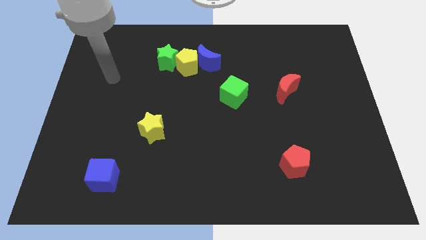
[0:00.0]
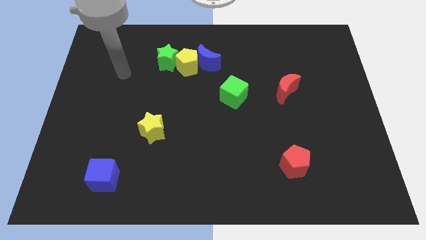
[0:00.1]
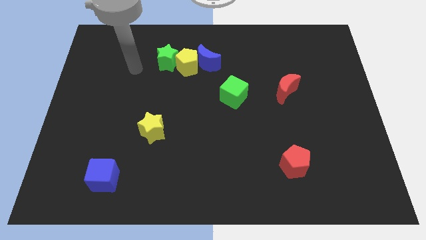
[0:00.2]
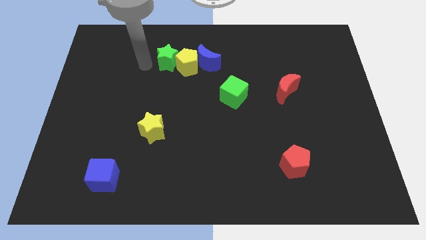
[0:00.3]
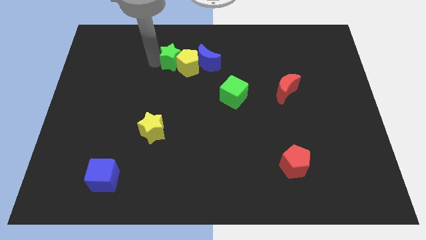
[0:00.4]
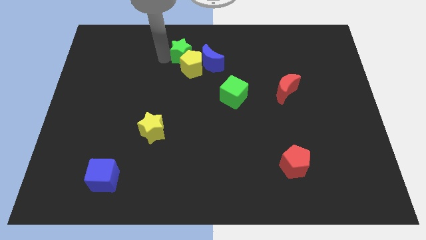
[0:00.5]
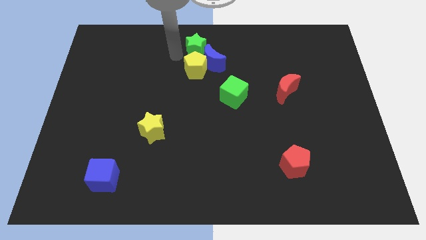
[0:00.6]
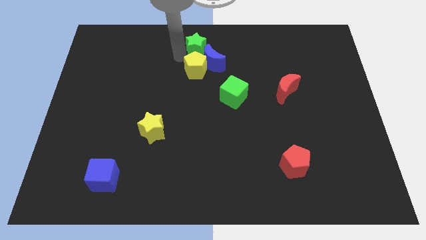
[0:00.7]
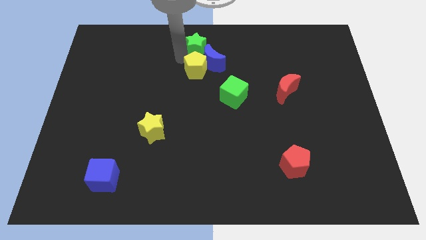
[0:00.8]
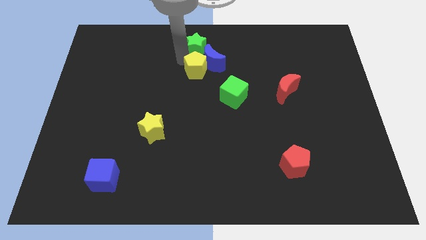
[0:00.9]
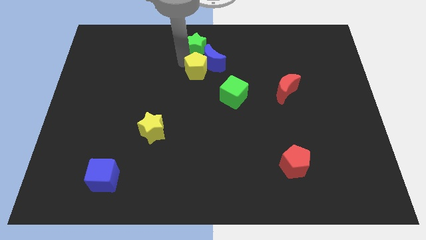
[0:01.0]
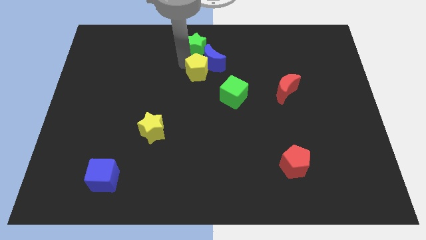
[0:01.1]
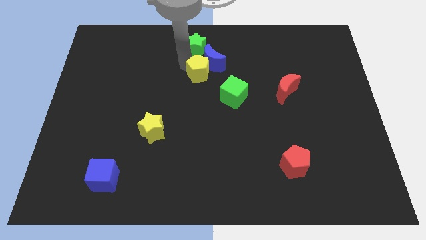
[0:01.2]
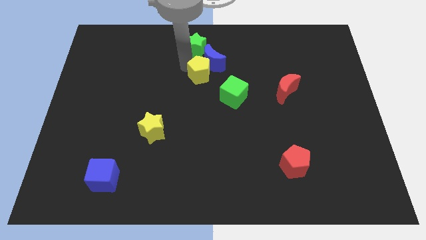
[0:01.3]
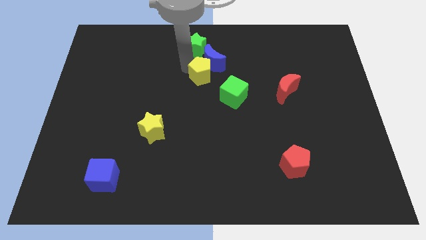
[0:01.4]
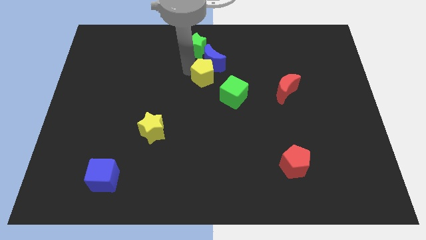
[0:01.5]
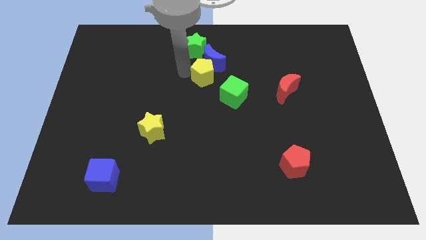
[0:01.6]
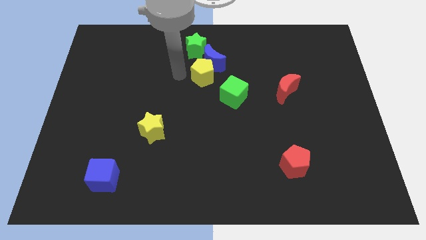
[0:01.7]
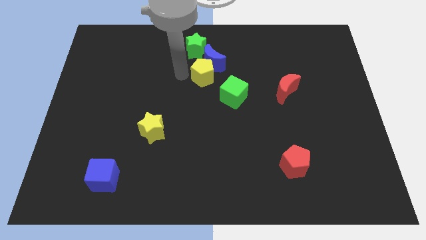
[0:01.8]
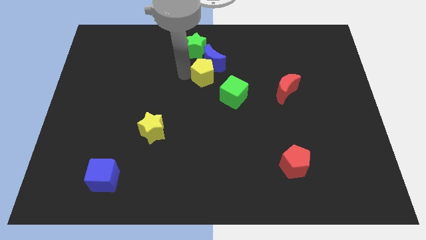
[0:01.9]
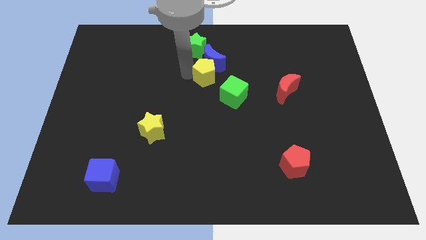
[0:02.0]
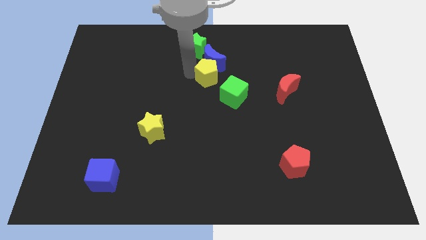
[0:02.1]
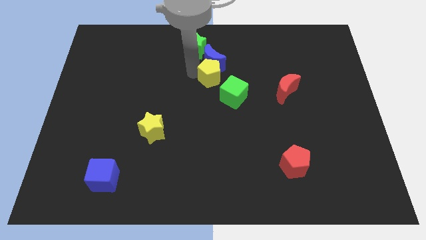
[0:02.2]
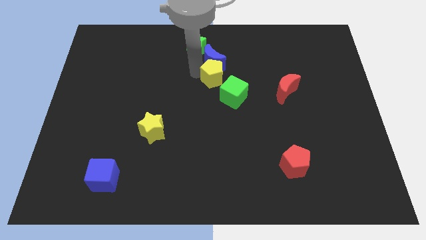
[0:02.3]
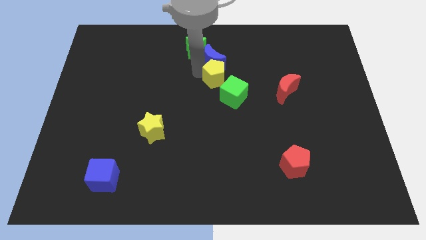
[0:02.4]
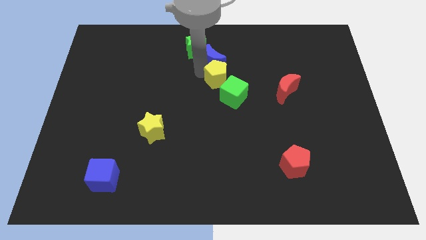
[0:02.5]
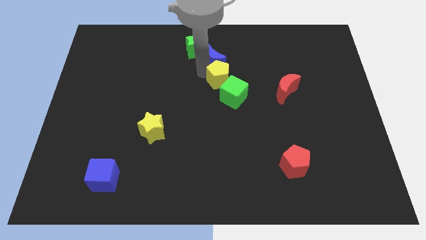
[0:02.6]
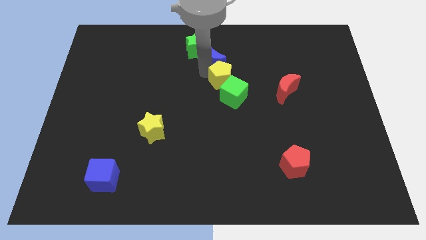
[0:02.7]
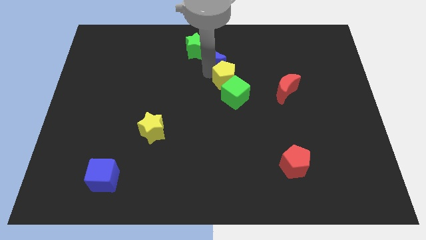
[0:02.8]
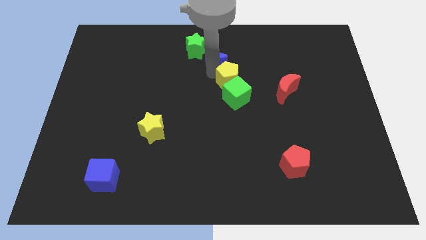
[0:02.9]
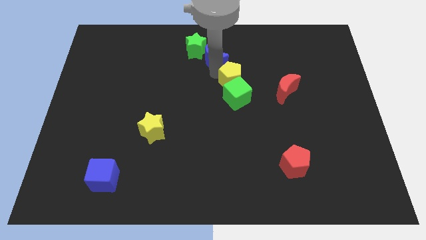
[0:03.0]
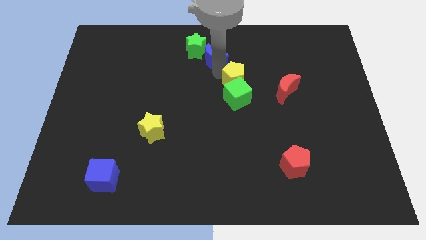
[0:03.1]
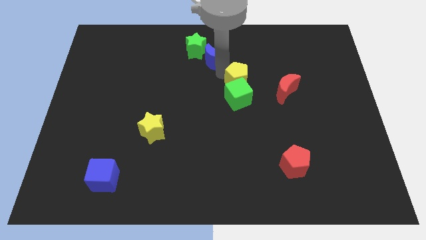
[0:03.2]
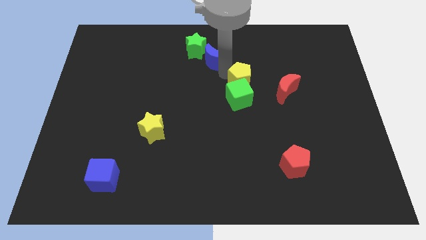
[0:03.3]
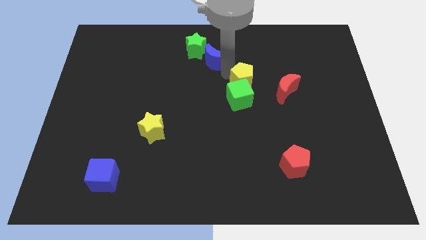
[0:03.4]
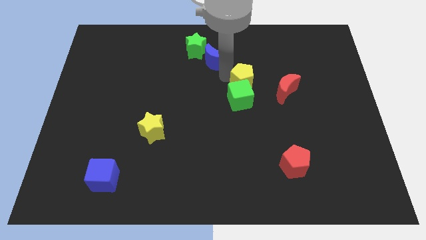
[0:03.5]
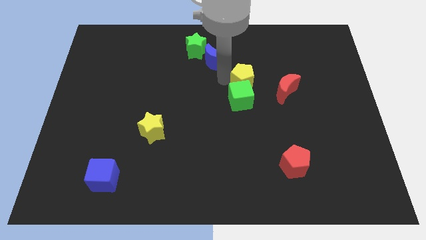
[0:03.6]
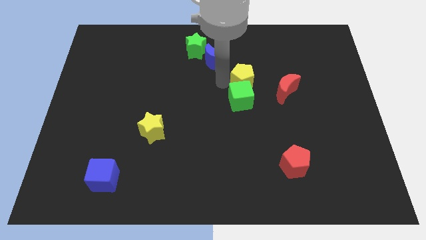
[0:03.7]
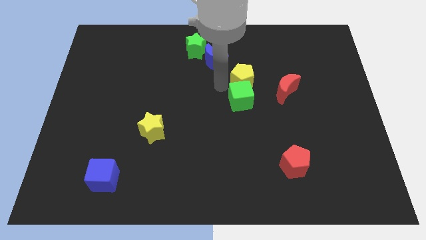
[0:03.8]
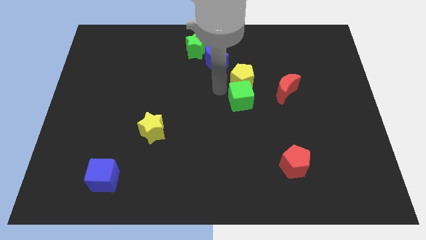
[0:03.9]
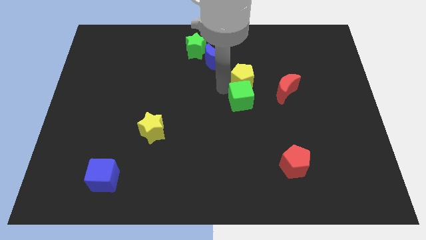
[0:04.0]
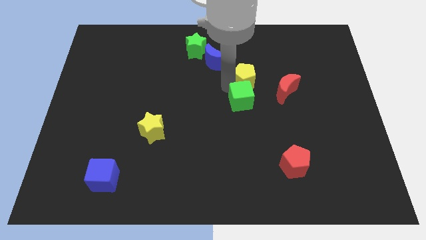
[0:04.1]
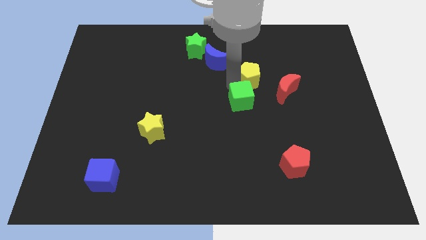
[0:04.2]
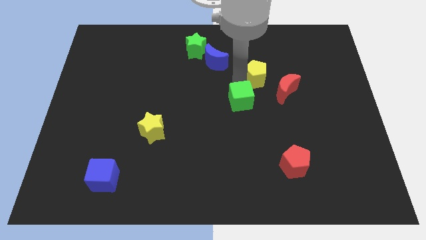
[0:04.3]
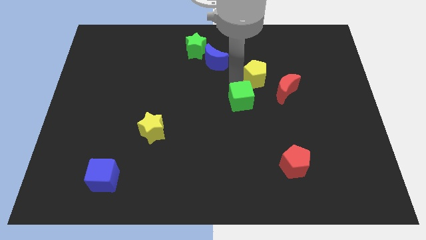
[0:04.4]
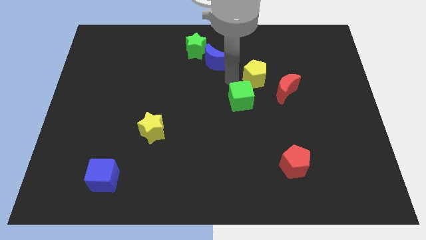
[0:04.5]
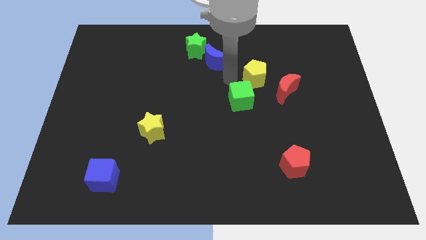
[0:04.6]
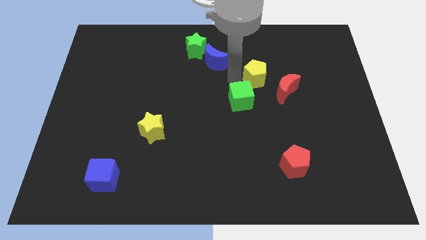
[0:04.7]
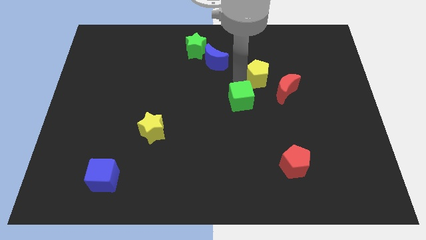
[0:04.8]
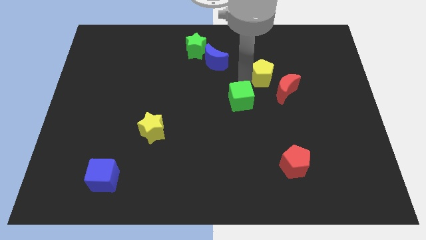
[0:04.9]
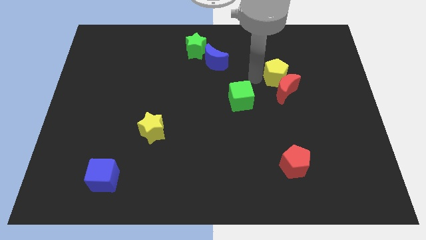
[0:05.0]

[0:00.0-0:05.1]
move the yellow pentagon diagonally up and to the right of the red moon

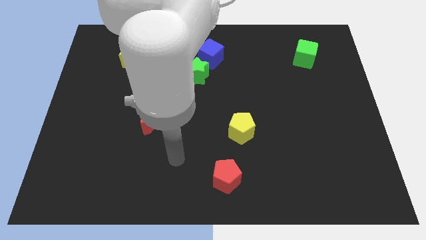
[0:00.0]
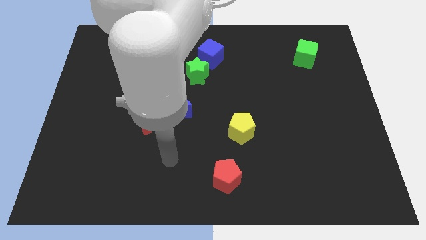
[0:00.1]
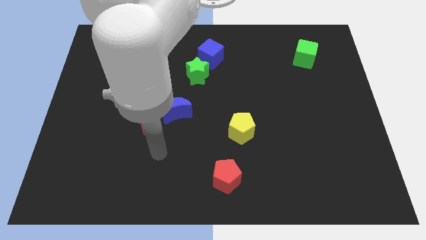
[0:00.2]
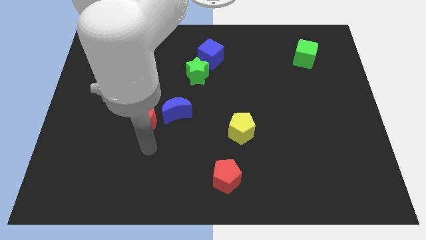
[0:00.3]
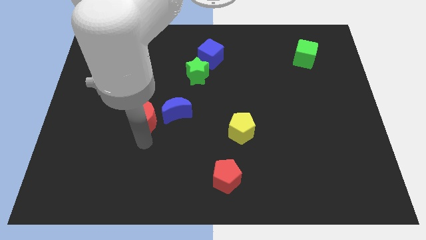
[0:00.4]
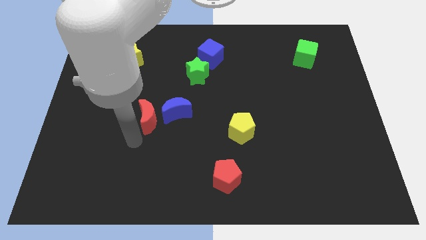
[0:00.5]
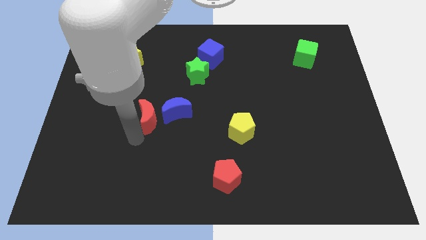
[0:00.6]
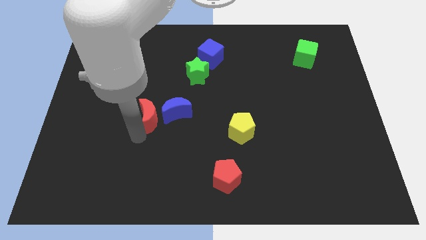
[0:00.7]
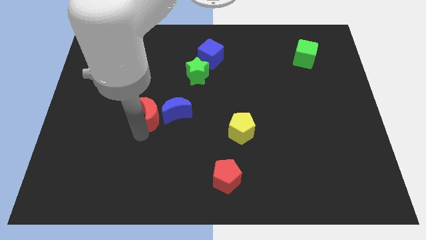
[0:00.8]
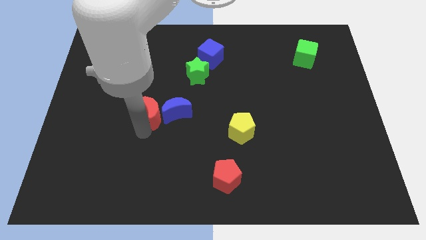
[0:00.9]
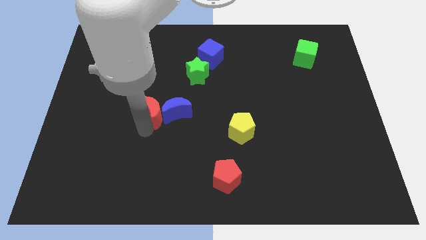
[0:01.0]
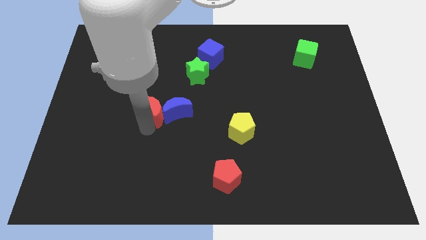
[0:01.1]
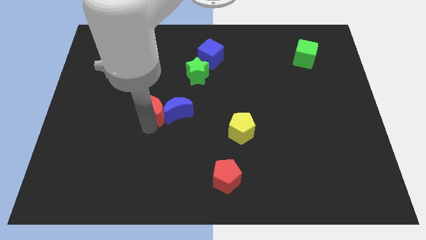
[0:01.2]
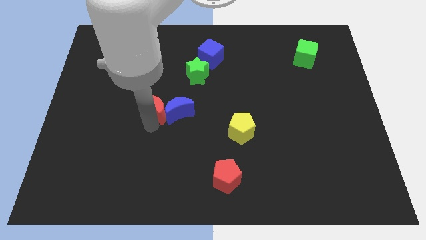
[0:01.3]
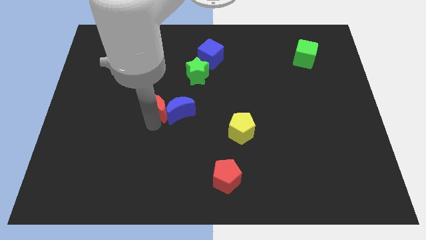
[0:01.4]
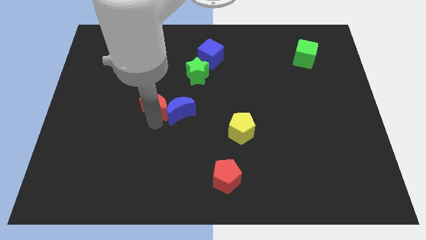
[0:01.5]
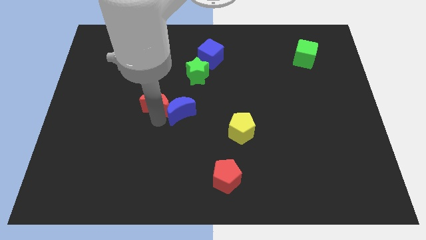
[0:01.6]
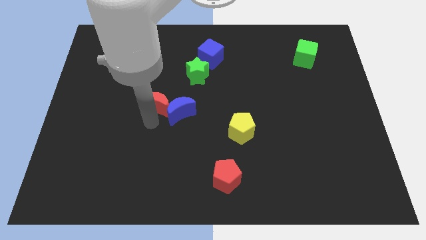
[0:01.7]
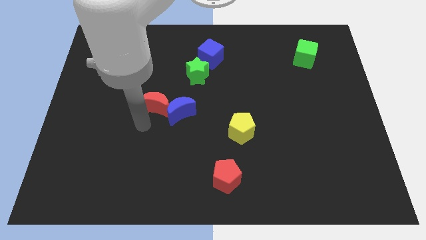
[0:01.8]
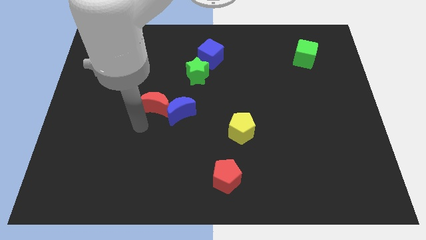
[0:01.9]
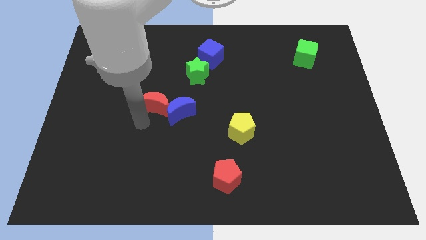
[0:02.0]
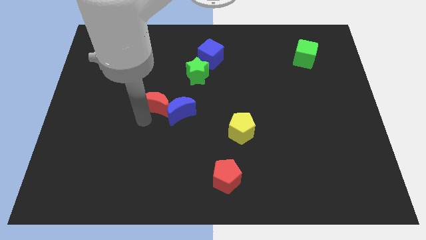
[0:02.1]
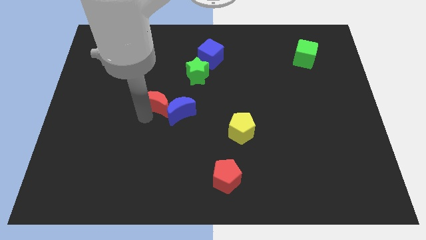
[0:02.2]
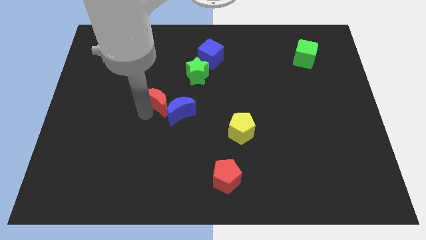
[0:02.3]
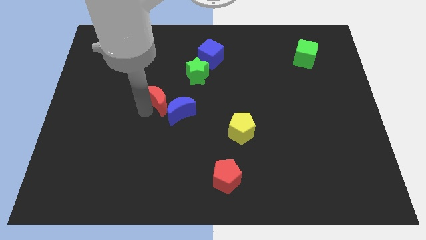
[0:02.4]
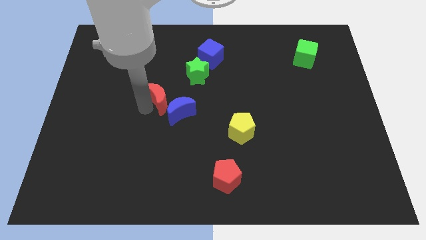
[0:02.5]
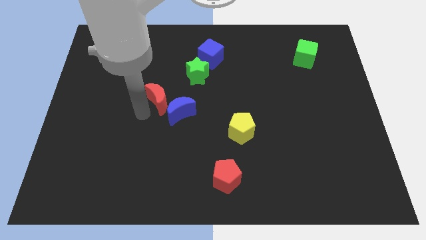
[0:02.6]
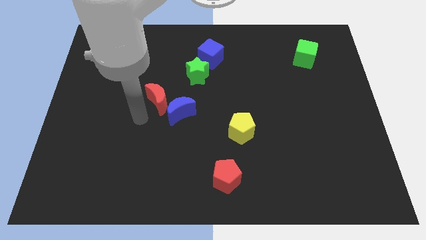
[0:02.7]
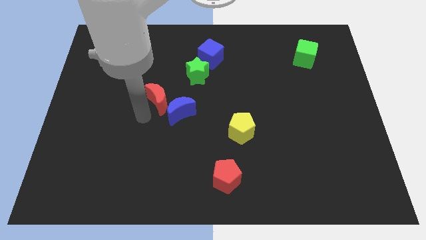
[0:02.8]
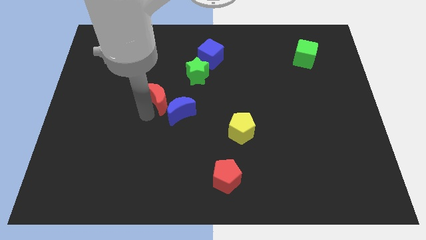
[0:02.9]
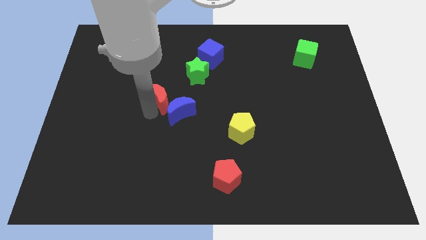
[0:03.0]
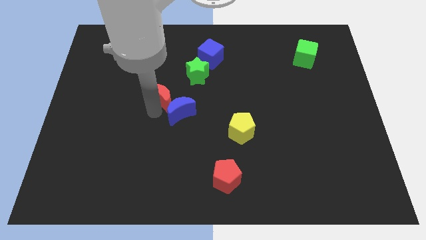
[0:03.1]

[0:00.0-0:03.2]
move the red moon to the top of the blue moon

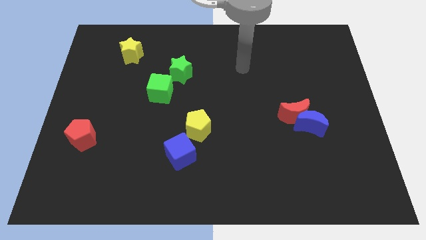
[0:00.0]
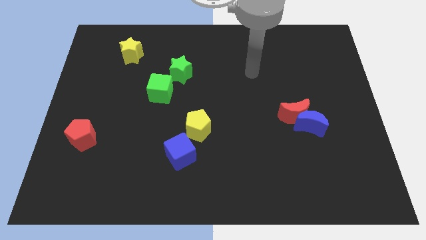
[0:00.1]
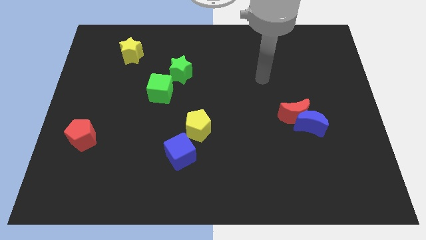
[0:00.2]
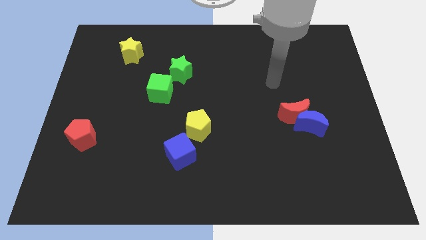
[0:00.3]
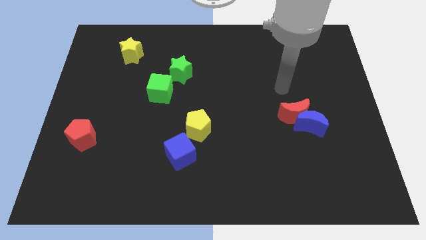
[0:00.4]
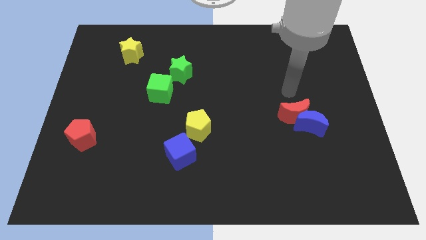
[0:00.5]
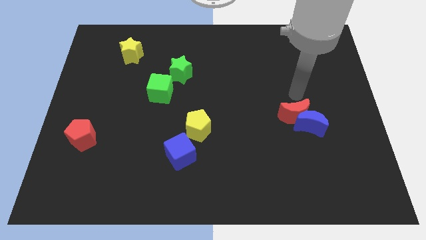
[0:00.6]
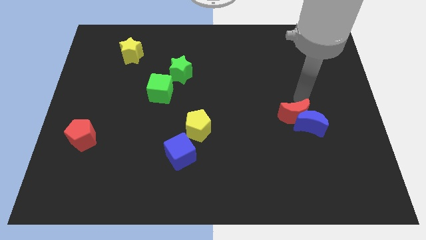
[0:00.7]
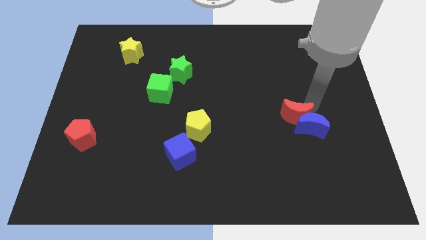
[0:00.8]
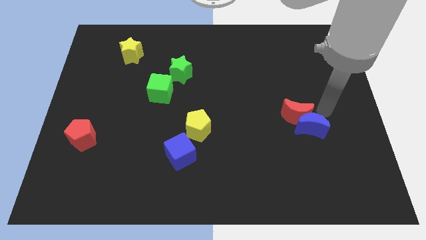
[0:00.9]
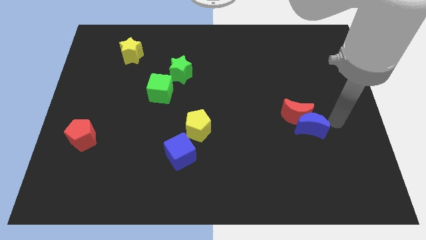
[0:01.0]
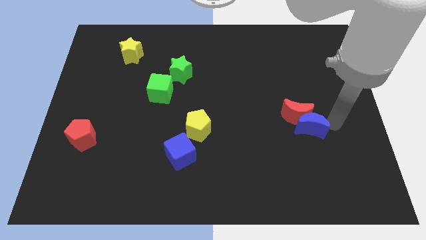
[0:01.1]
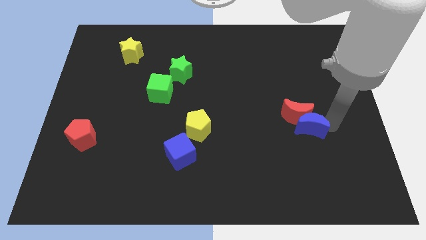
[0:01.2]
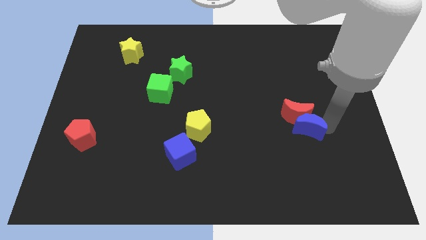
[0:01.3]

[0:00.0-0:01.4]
push the blue moon to the bottom left side of the red moon
